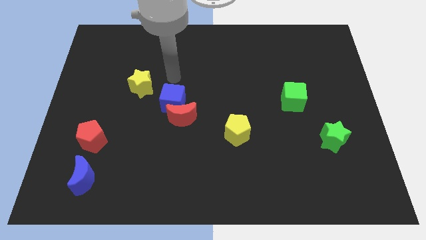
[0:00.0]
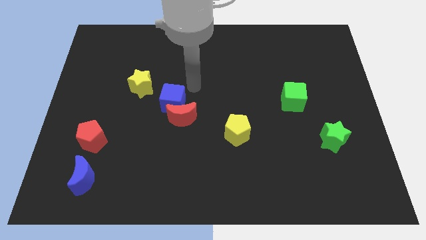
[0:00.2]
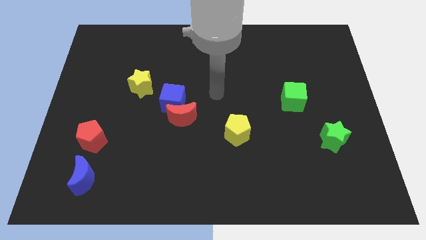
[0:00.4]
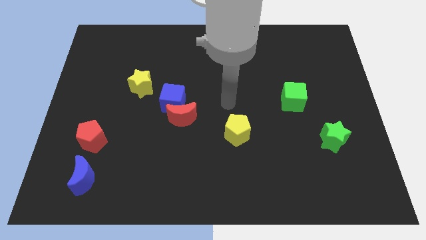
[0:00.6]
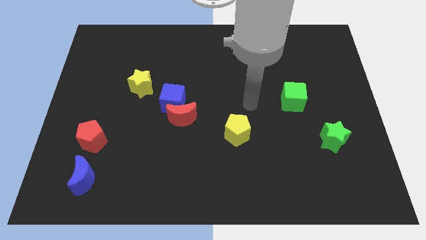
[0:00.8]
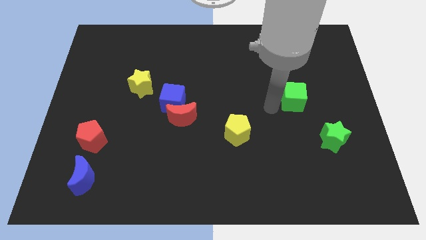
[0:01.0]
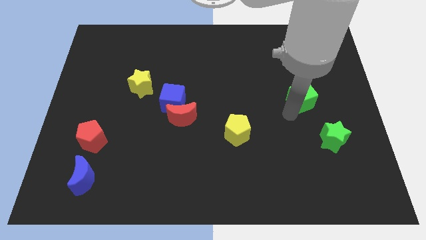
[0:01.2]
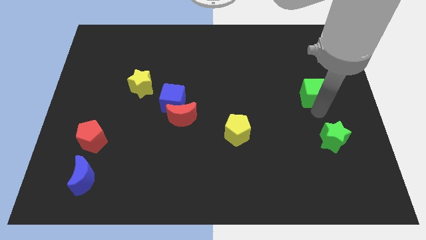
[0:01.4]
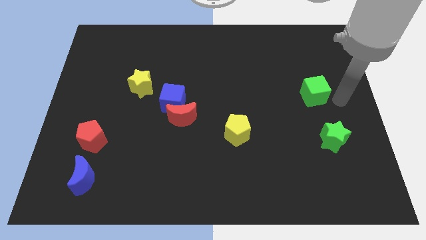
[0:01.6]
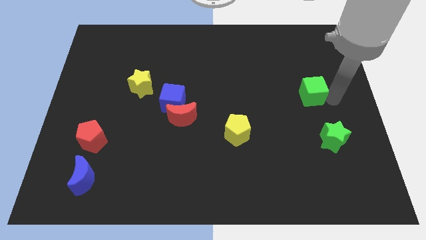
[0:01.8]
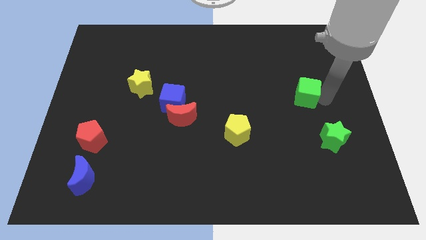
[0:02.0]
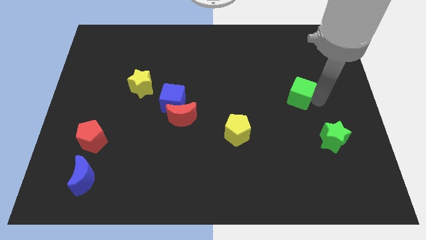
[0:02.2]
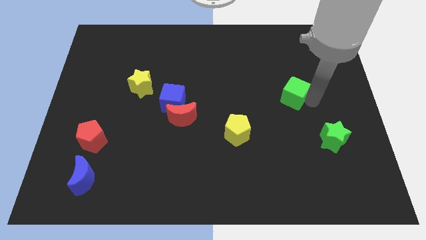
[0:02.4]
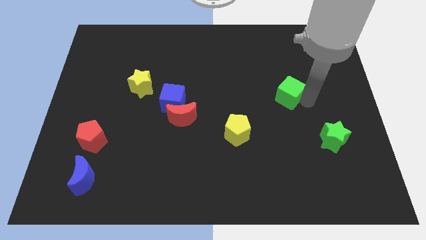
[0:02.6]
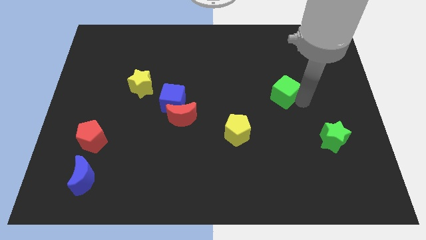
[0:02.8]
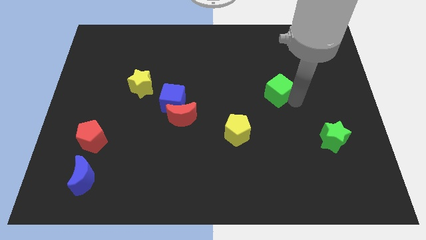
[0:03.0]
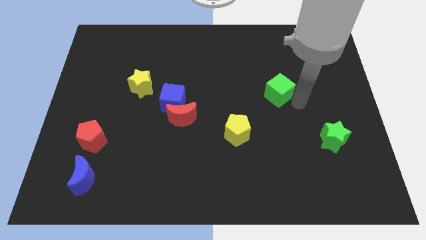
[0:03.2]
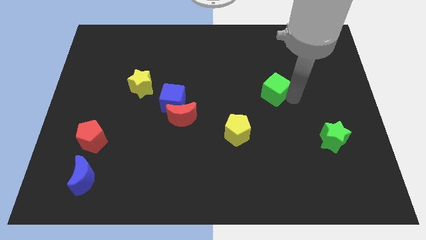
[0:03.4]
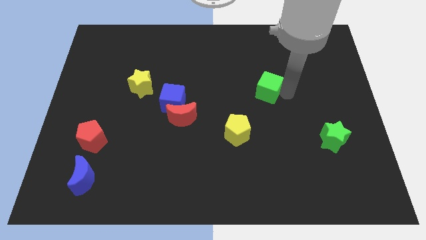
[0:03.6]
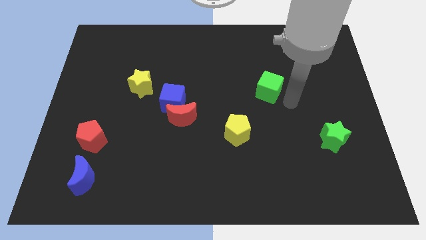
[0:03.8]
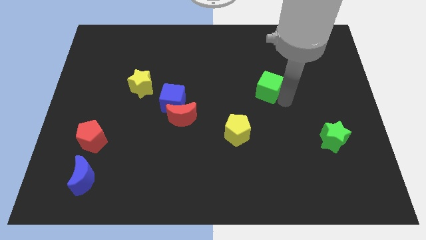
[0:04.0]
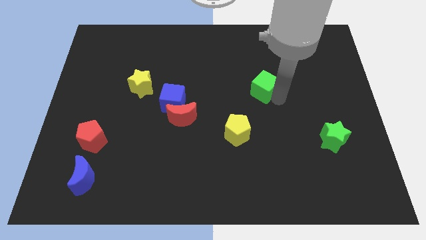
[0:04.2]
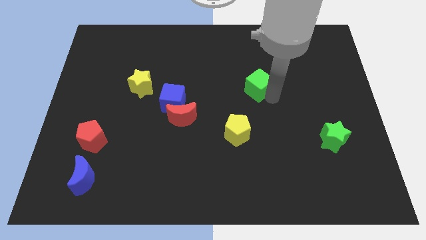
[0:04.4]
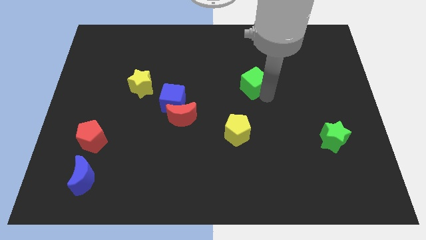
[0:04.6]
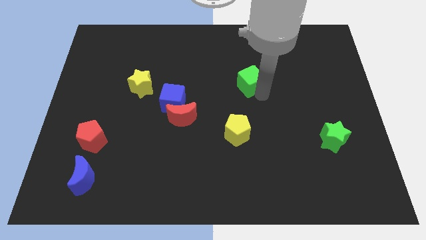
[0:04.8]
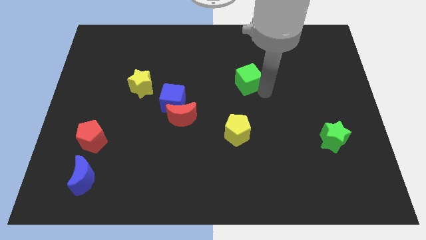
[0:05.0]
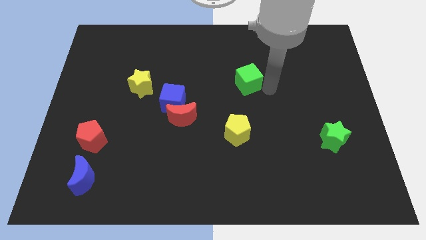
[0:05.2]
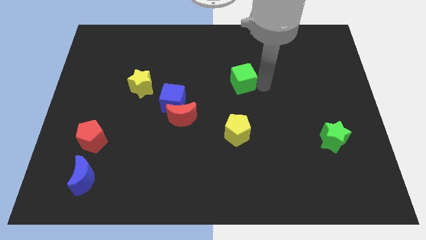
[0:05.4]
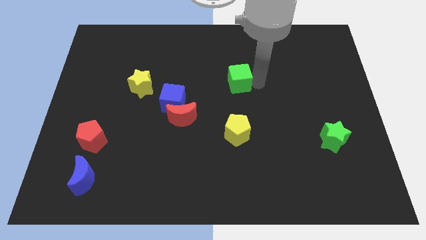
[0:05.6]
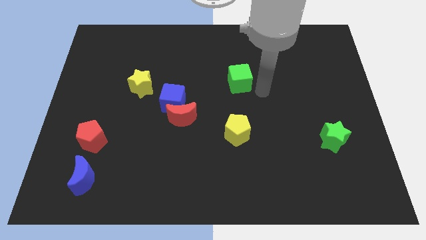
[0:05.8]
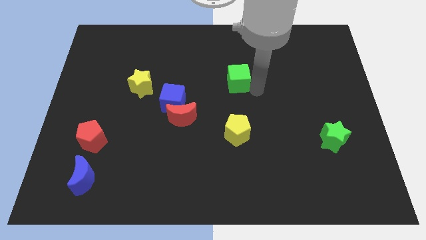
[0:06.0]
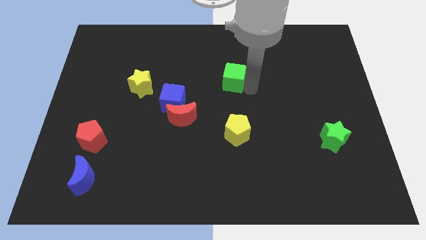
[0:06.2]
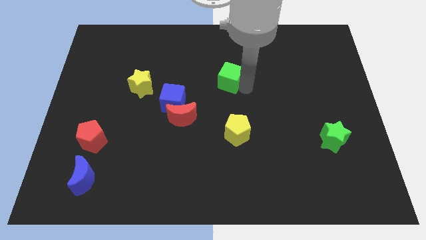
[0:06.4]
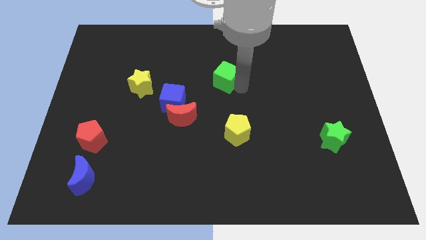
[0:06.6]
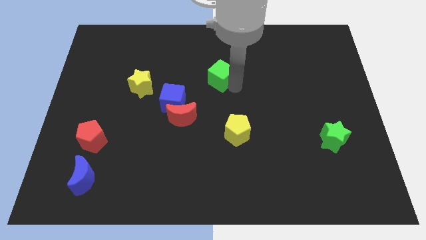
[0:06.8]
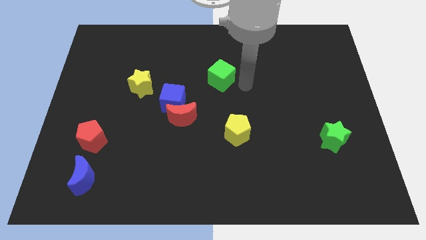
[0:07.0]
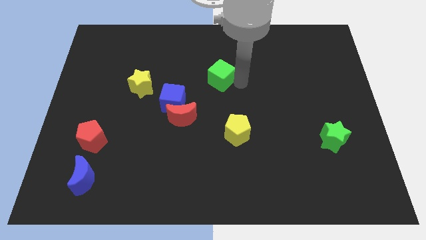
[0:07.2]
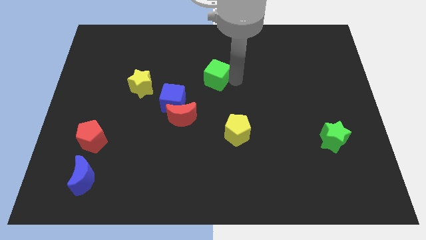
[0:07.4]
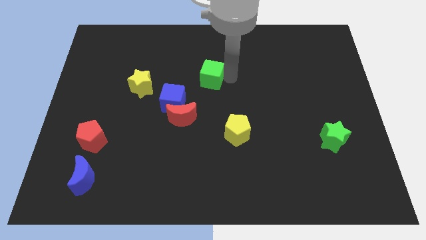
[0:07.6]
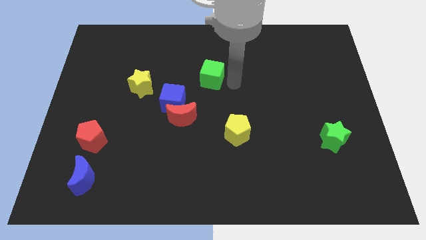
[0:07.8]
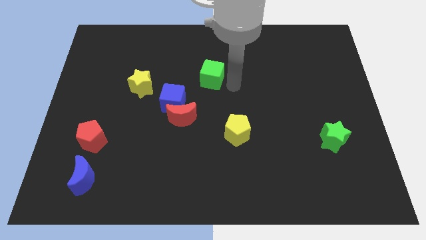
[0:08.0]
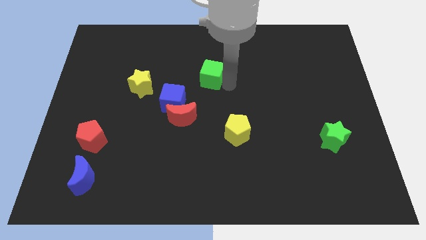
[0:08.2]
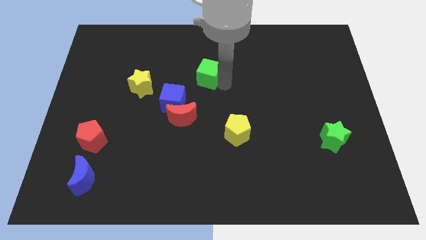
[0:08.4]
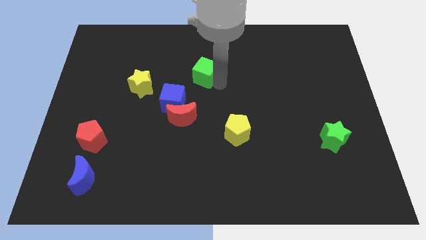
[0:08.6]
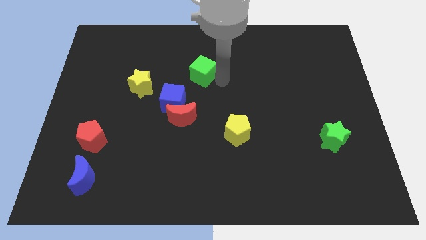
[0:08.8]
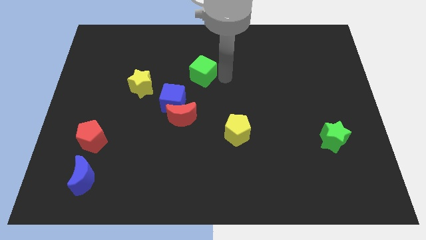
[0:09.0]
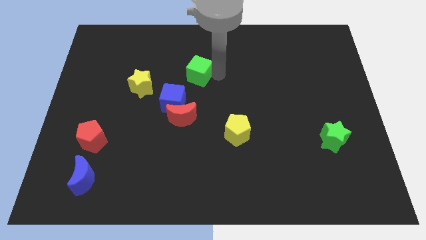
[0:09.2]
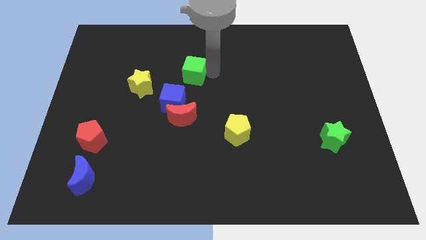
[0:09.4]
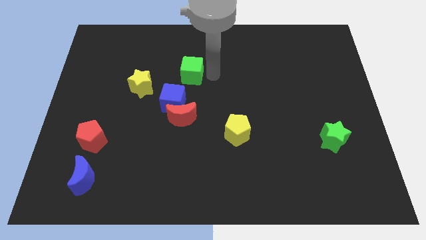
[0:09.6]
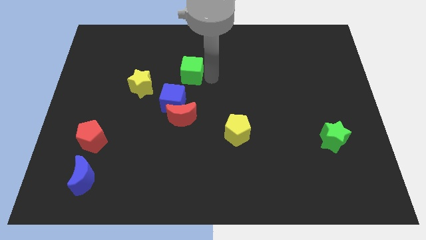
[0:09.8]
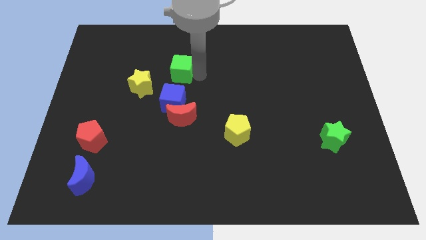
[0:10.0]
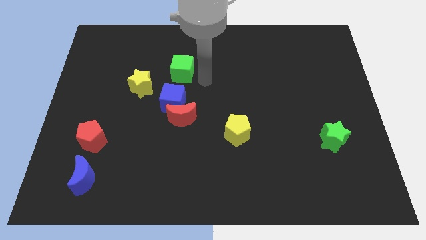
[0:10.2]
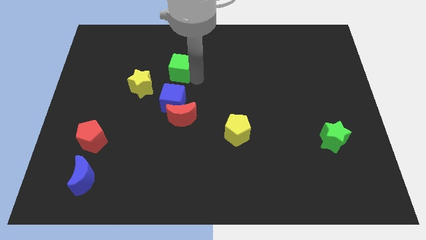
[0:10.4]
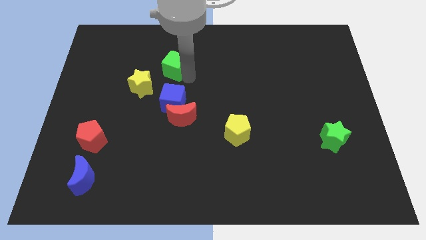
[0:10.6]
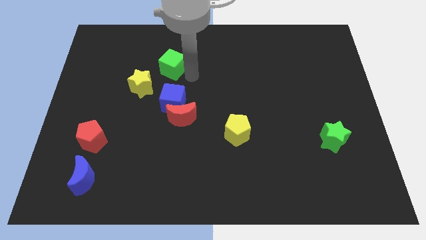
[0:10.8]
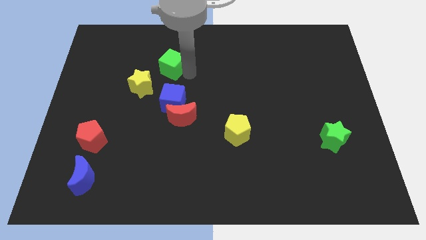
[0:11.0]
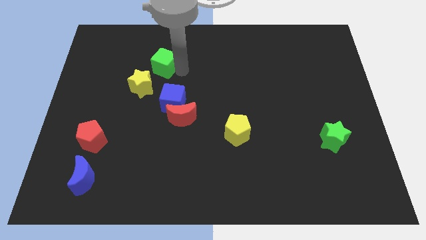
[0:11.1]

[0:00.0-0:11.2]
move the green cube above the yellow star
